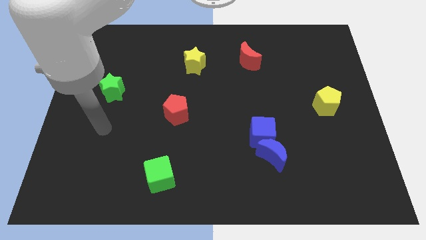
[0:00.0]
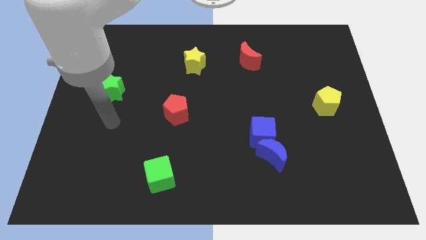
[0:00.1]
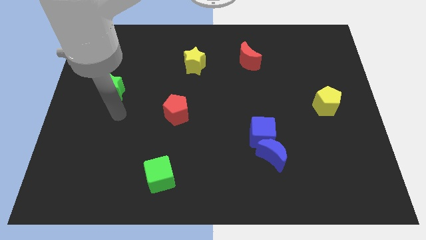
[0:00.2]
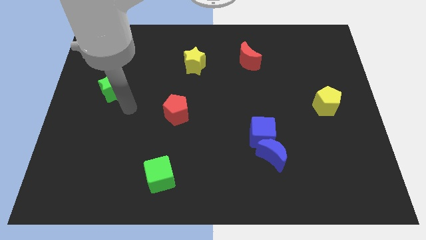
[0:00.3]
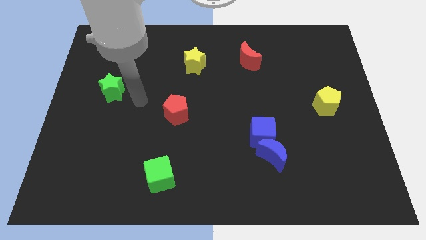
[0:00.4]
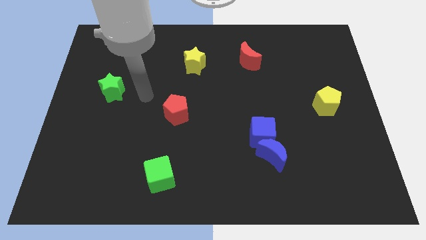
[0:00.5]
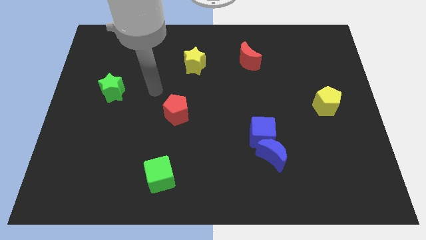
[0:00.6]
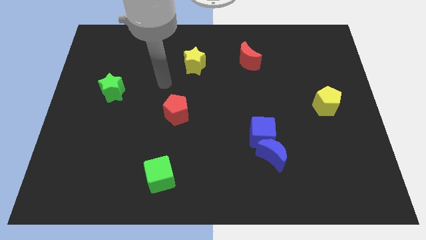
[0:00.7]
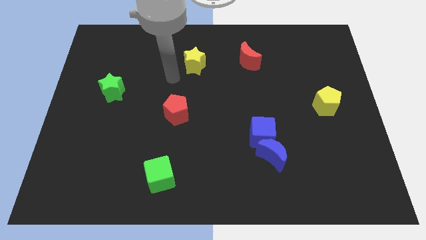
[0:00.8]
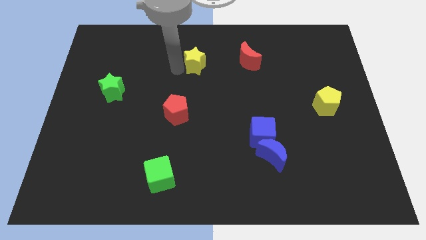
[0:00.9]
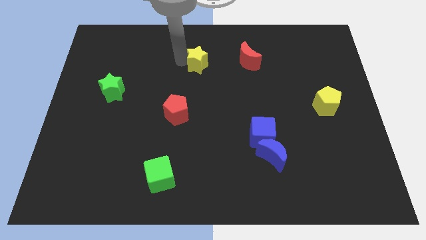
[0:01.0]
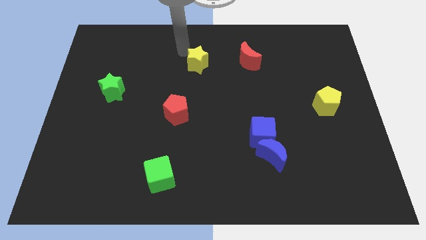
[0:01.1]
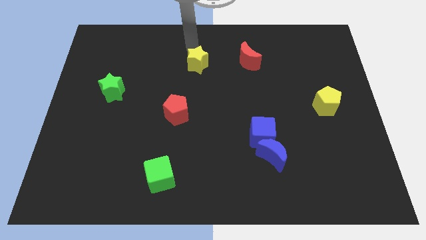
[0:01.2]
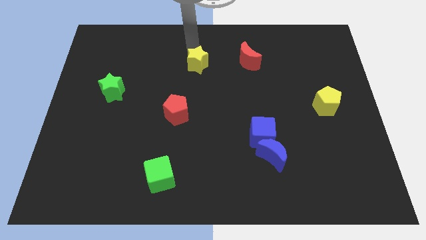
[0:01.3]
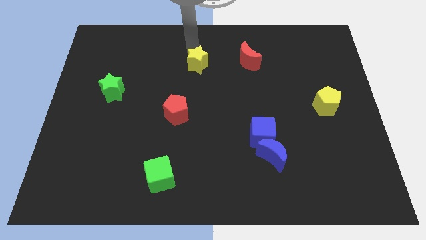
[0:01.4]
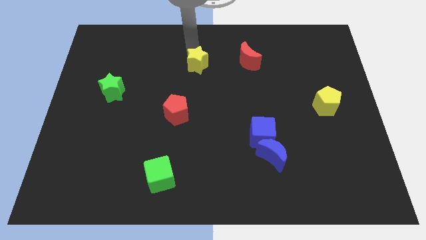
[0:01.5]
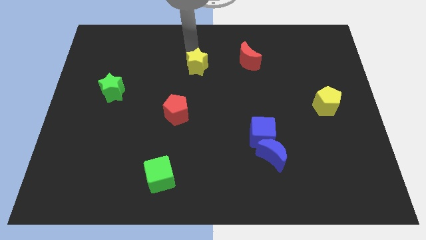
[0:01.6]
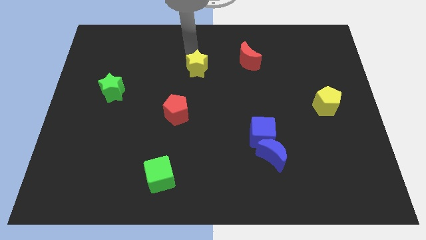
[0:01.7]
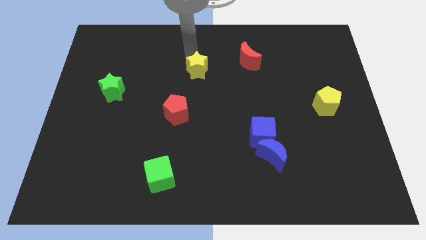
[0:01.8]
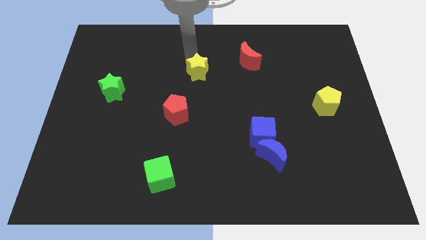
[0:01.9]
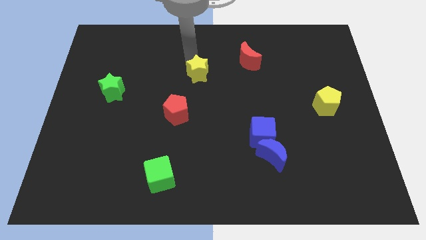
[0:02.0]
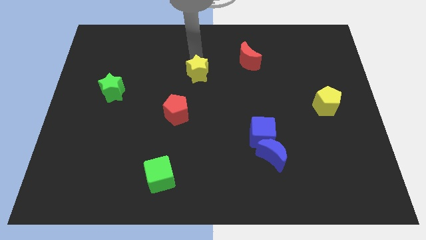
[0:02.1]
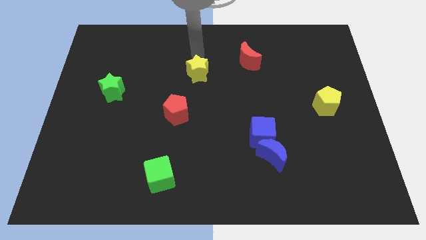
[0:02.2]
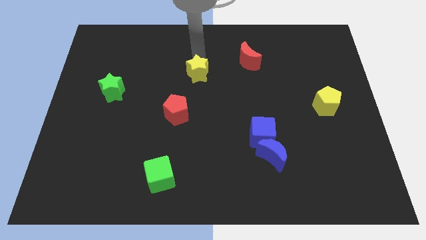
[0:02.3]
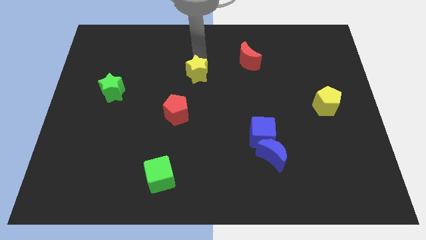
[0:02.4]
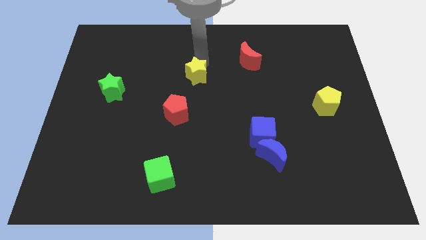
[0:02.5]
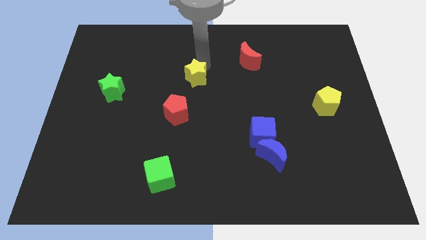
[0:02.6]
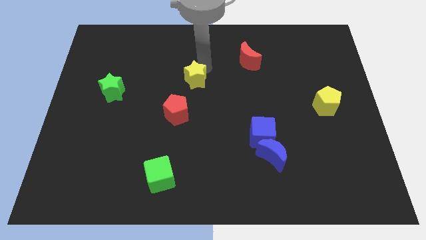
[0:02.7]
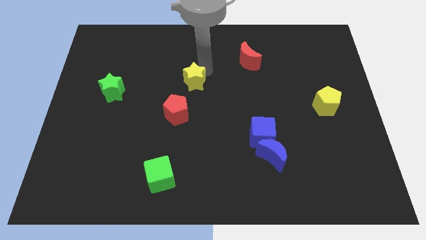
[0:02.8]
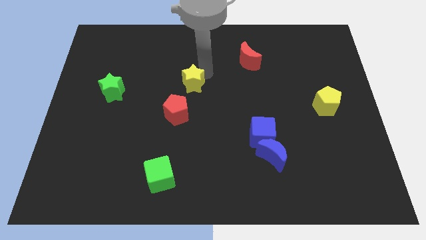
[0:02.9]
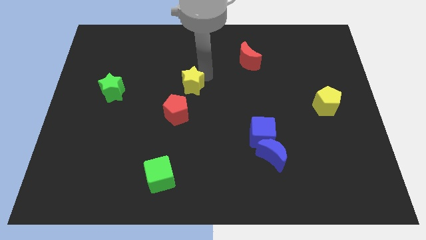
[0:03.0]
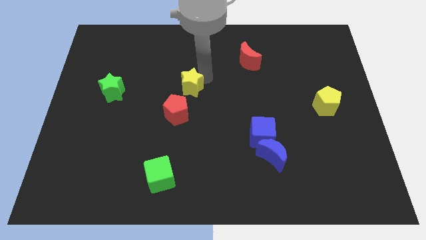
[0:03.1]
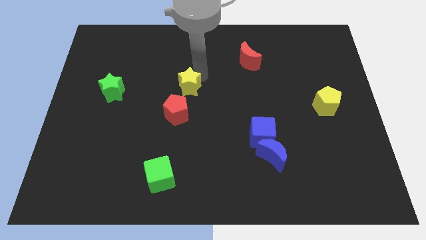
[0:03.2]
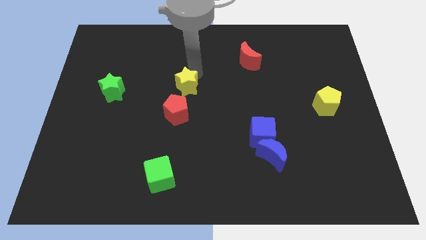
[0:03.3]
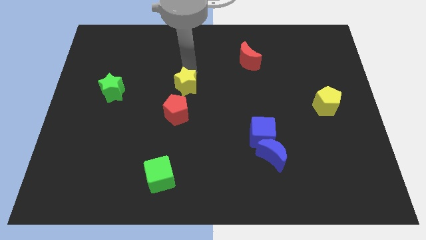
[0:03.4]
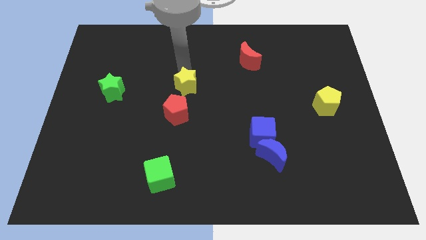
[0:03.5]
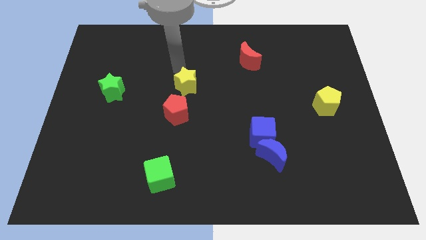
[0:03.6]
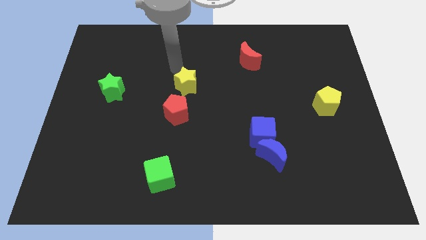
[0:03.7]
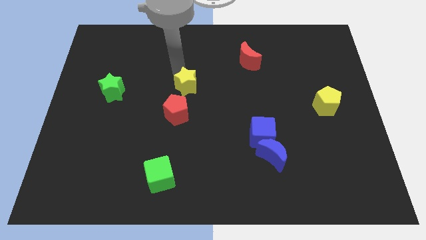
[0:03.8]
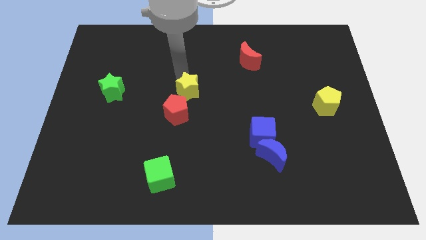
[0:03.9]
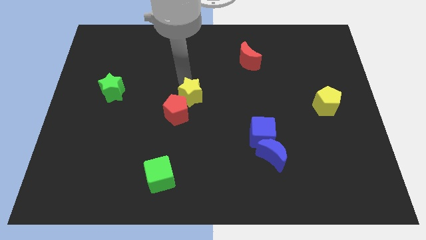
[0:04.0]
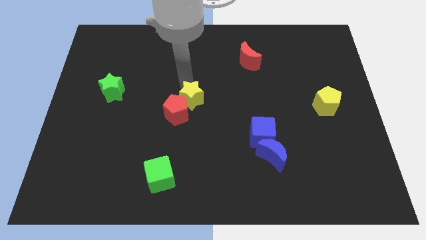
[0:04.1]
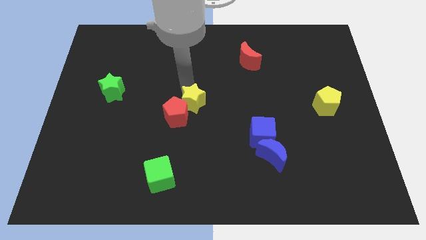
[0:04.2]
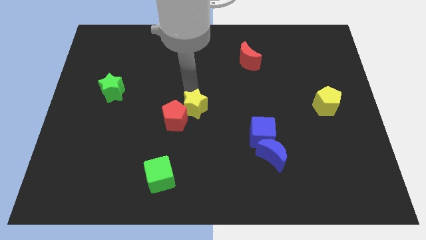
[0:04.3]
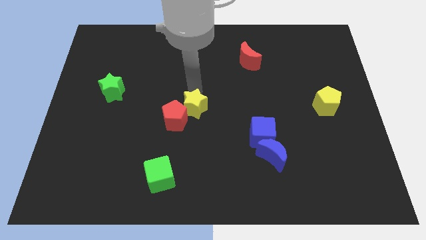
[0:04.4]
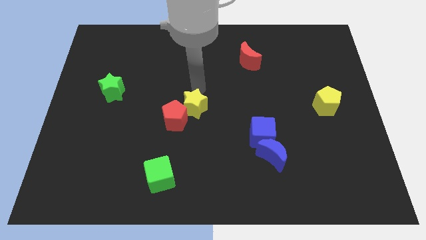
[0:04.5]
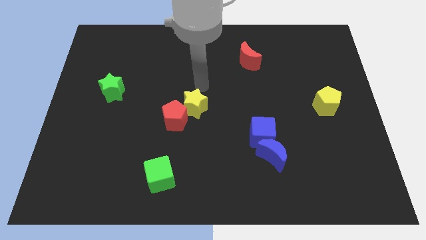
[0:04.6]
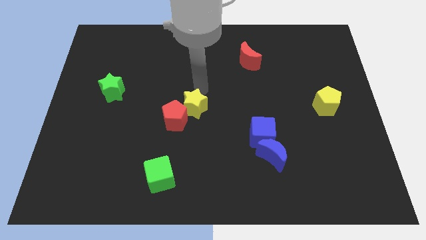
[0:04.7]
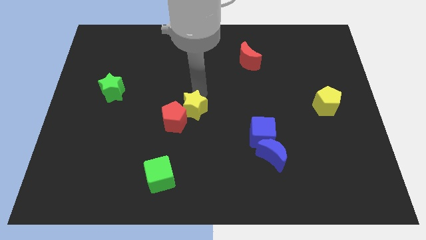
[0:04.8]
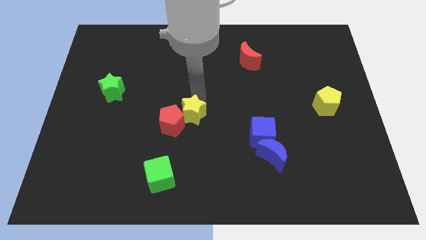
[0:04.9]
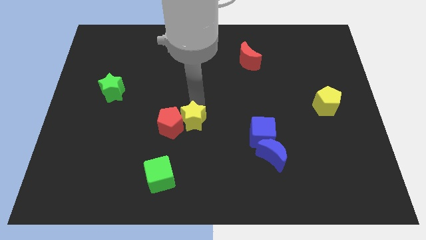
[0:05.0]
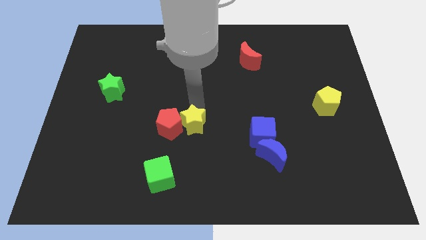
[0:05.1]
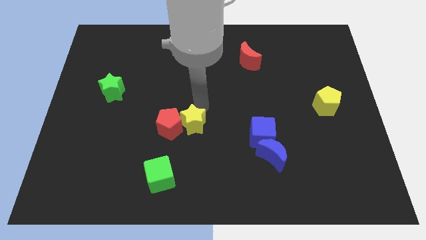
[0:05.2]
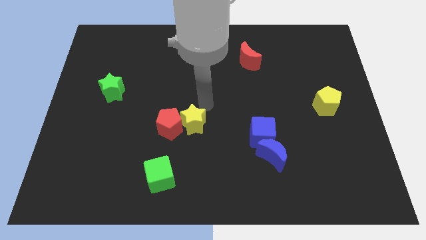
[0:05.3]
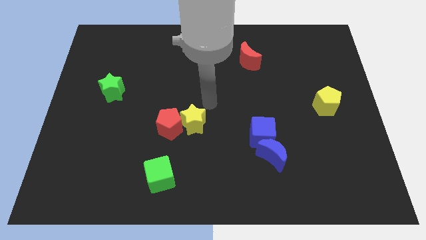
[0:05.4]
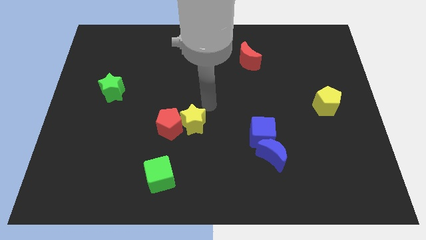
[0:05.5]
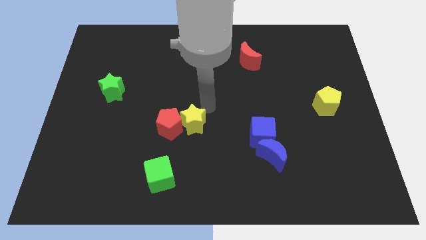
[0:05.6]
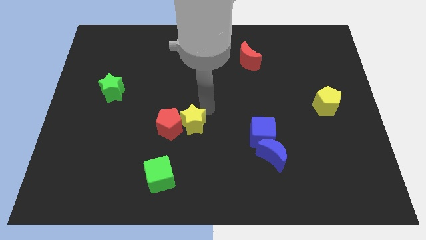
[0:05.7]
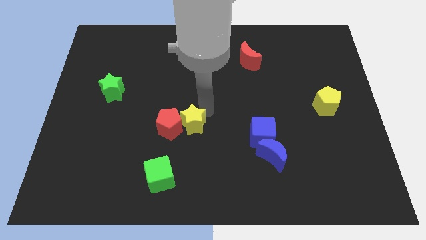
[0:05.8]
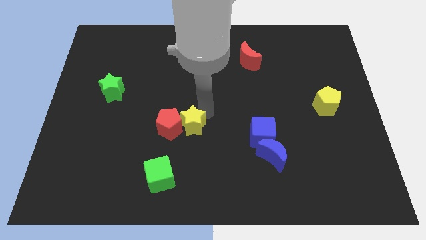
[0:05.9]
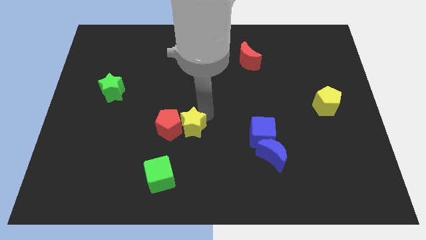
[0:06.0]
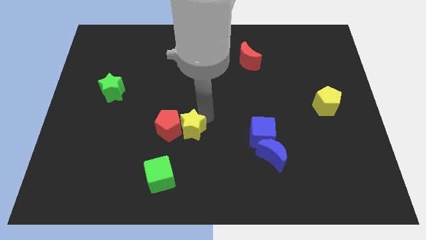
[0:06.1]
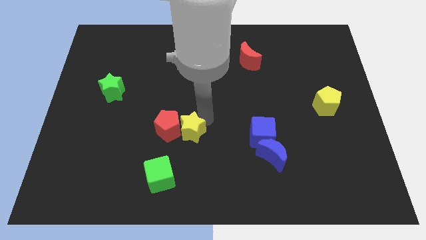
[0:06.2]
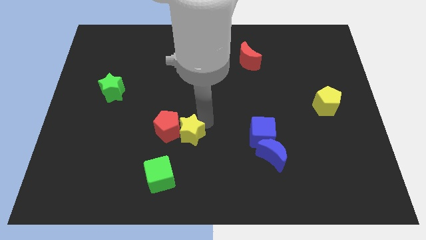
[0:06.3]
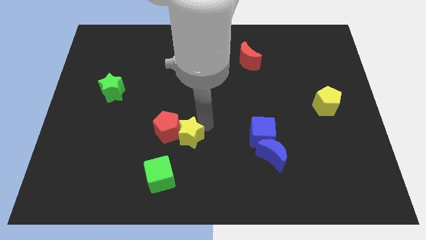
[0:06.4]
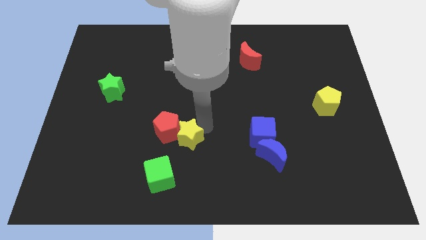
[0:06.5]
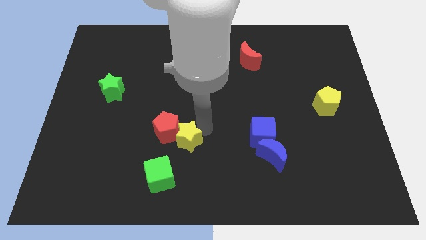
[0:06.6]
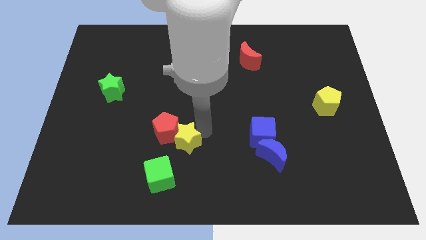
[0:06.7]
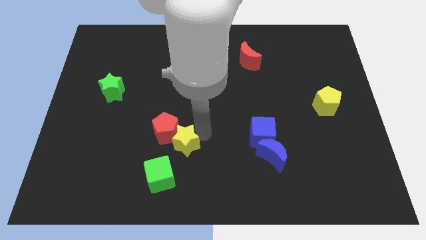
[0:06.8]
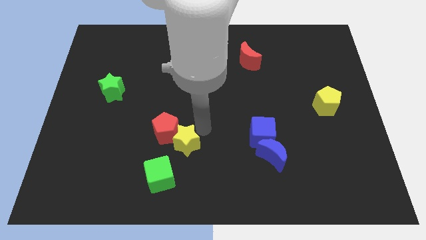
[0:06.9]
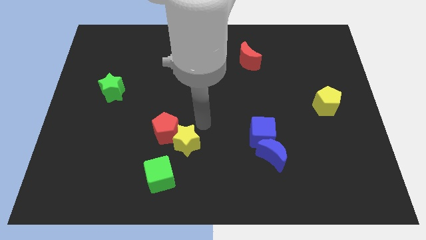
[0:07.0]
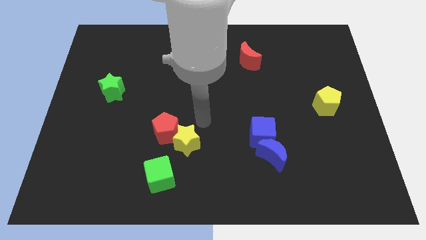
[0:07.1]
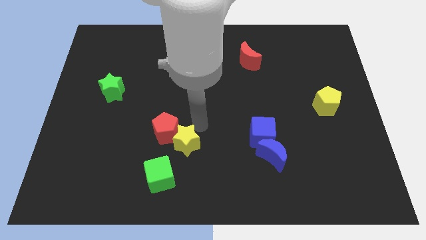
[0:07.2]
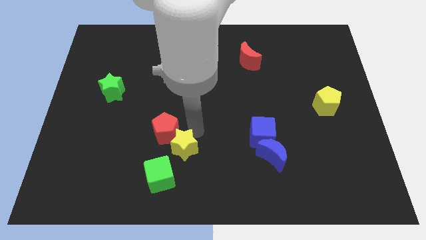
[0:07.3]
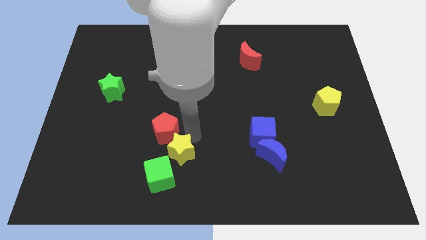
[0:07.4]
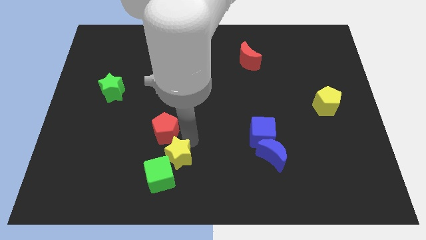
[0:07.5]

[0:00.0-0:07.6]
move the yellow star to the green cube
